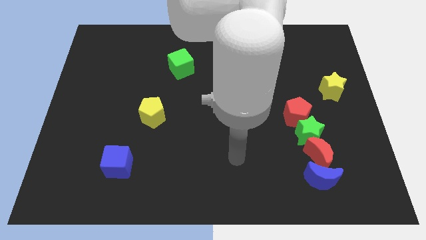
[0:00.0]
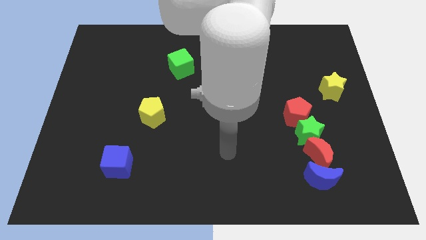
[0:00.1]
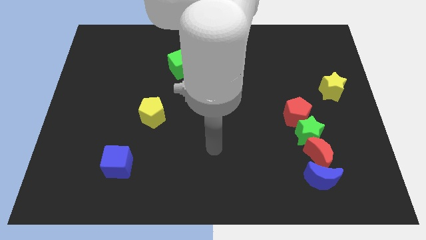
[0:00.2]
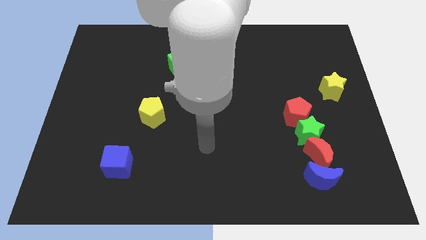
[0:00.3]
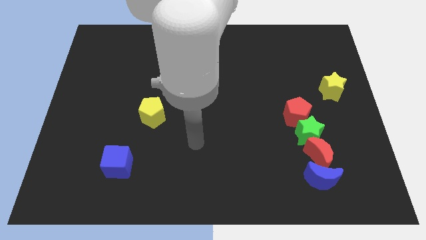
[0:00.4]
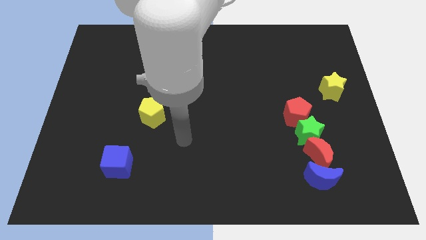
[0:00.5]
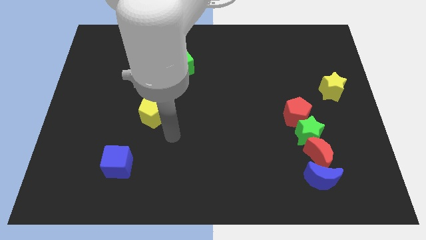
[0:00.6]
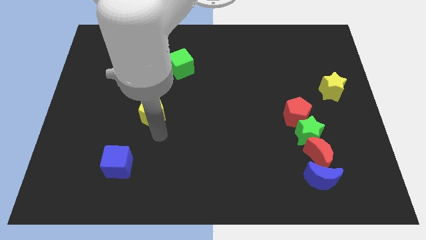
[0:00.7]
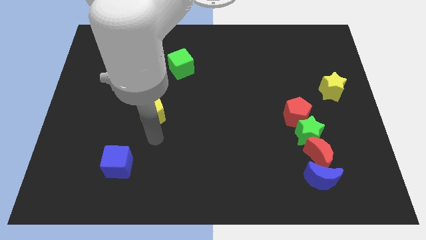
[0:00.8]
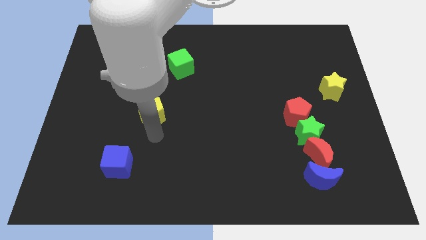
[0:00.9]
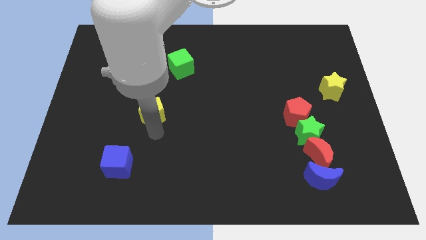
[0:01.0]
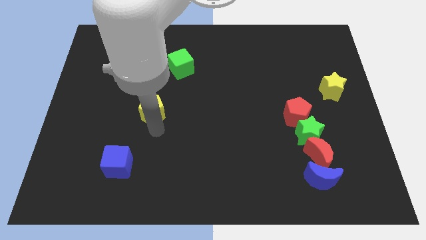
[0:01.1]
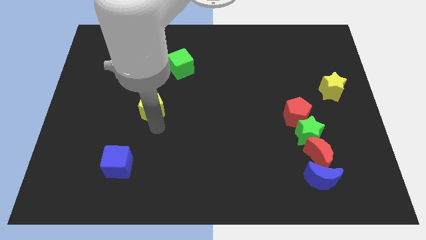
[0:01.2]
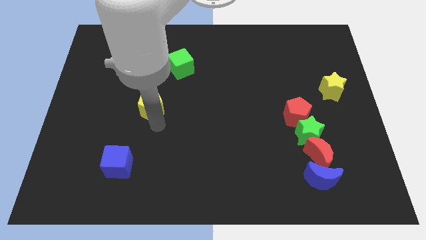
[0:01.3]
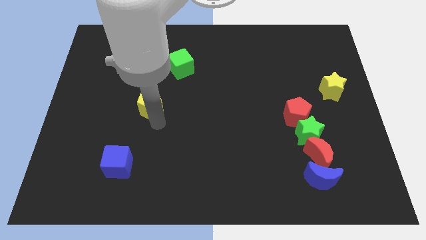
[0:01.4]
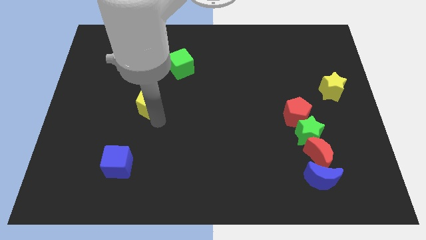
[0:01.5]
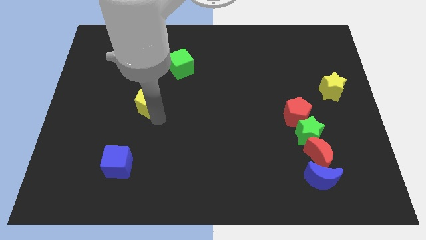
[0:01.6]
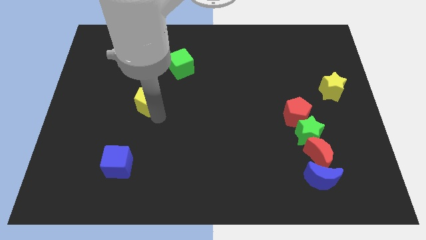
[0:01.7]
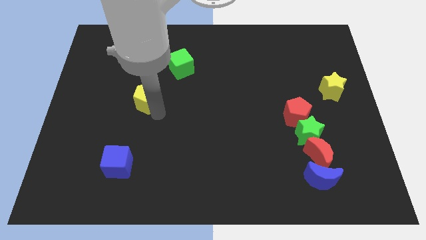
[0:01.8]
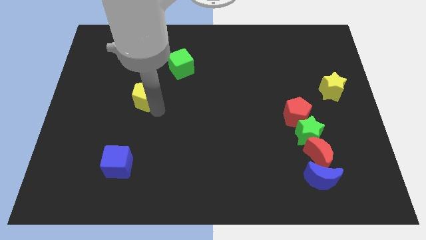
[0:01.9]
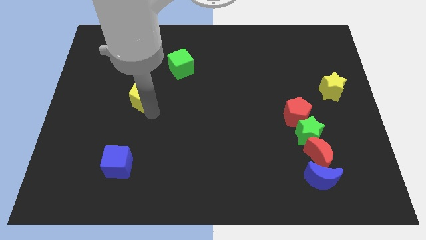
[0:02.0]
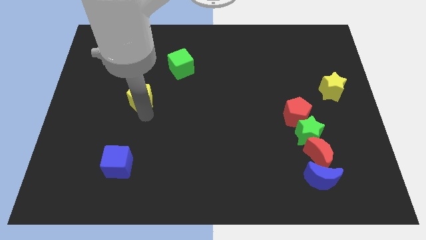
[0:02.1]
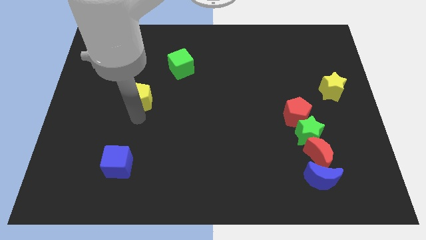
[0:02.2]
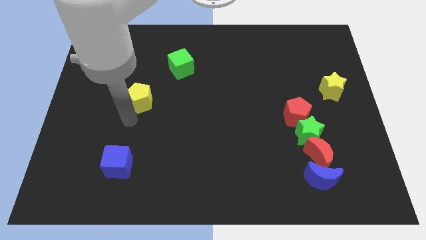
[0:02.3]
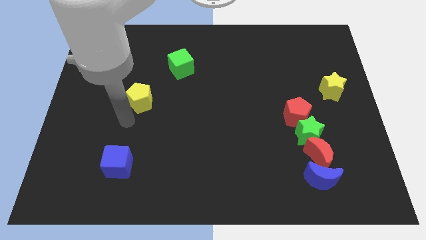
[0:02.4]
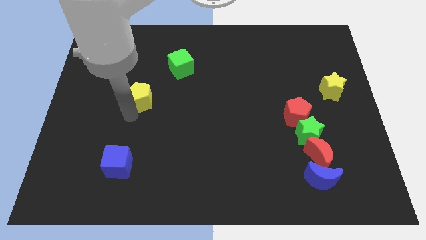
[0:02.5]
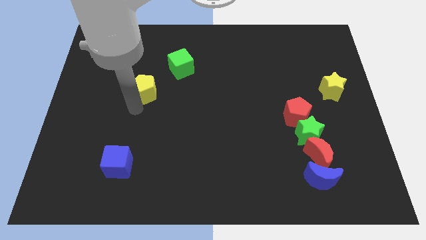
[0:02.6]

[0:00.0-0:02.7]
push the yellow pentagon a little upwards

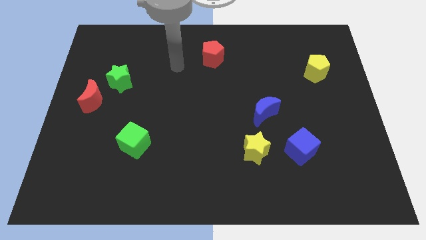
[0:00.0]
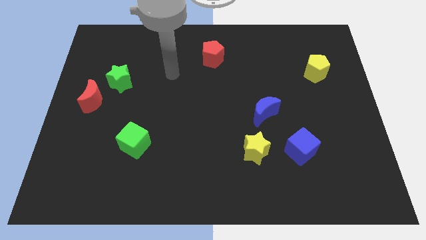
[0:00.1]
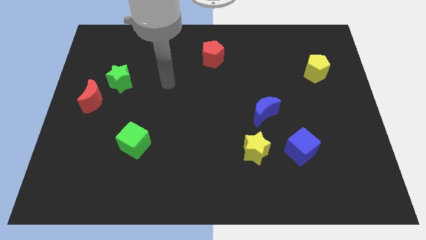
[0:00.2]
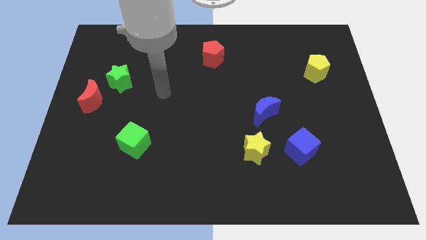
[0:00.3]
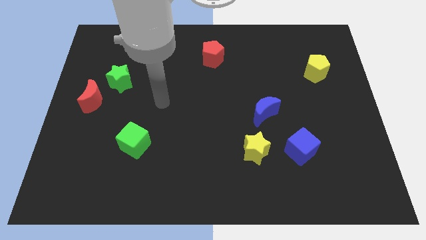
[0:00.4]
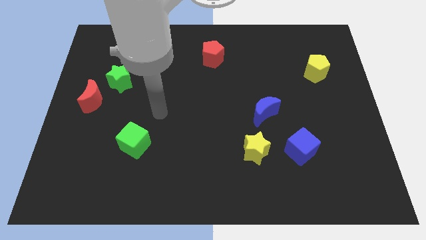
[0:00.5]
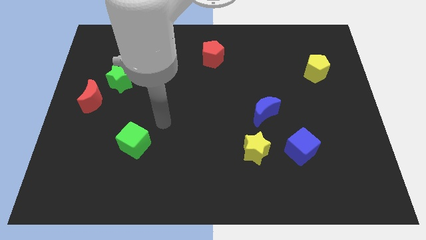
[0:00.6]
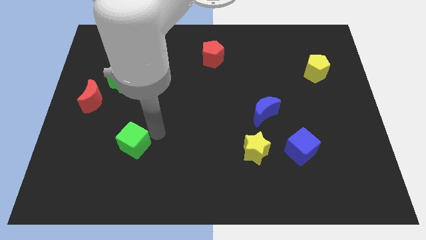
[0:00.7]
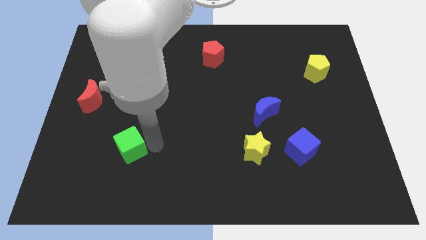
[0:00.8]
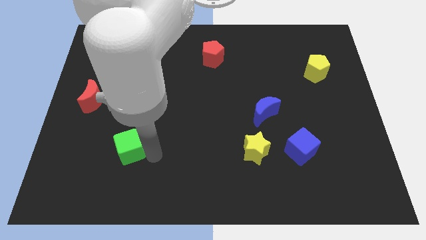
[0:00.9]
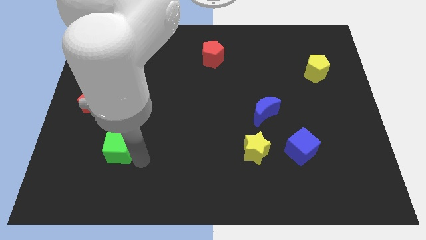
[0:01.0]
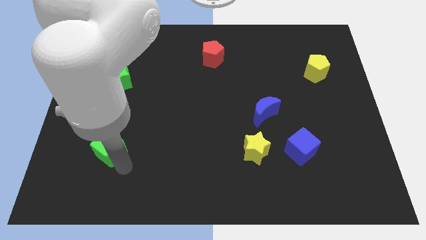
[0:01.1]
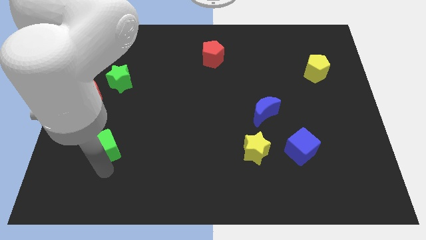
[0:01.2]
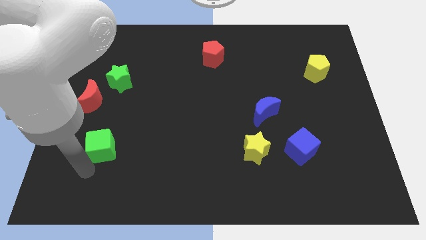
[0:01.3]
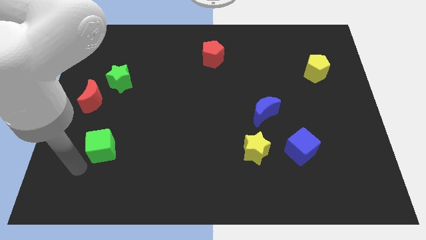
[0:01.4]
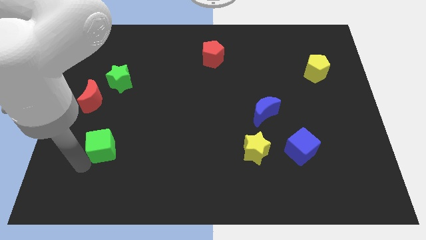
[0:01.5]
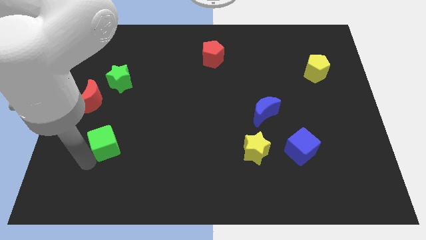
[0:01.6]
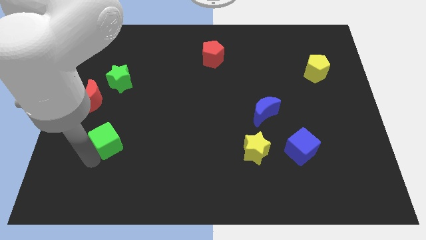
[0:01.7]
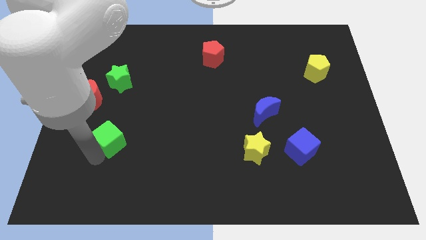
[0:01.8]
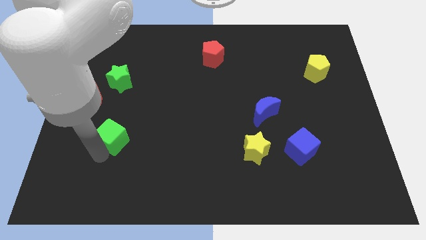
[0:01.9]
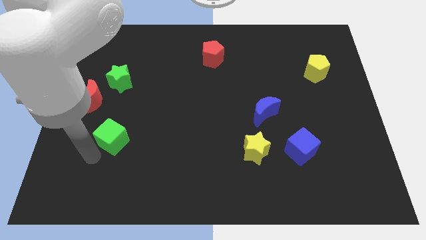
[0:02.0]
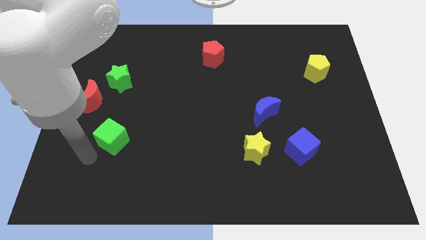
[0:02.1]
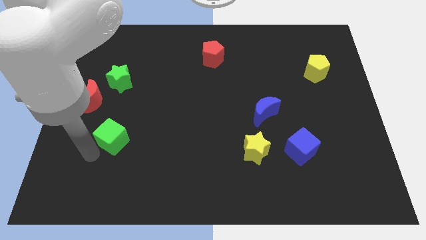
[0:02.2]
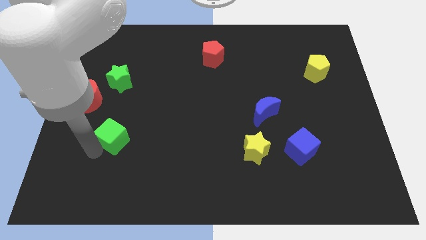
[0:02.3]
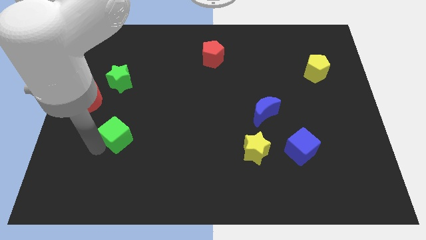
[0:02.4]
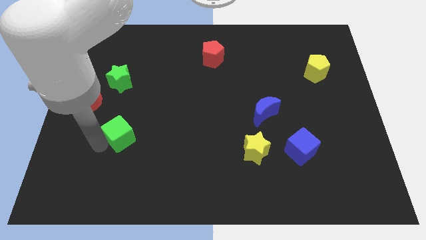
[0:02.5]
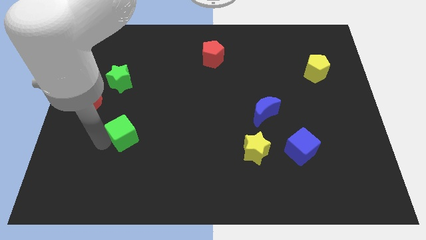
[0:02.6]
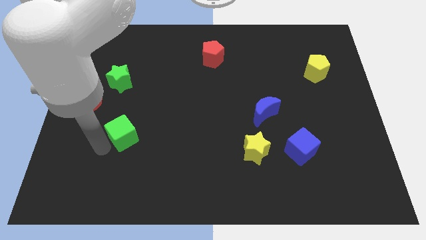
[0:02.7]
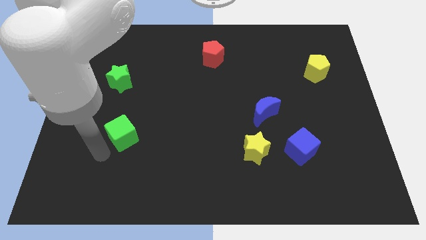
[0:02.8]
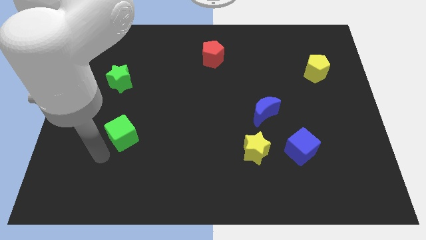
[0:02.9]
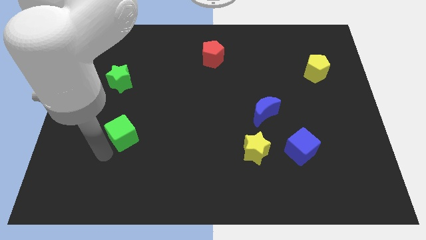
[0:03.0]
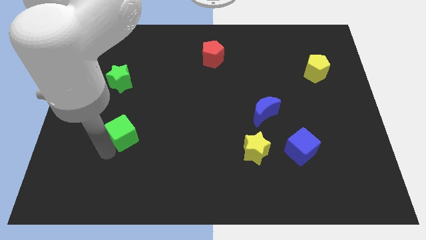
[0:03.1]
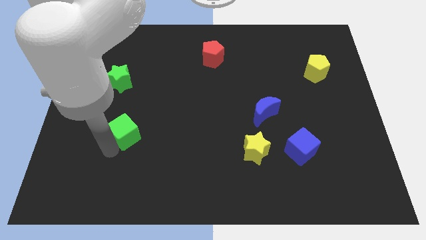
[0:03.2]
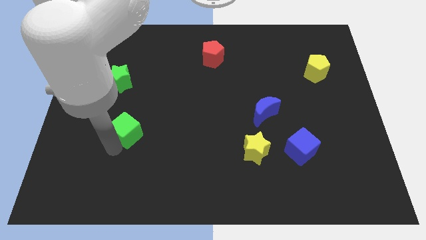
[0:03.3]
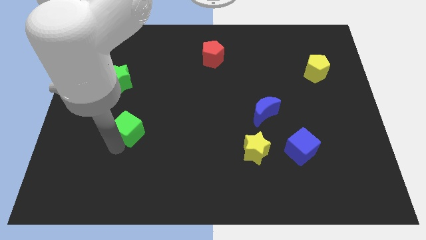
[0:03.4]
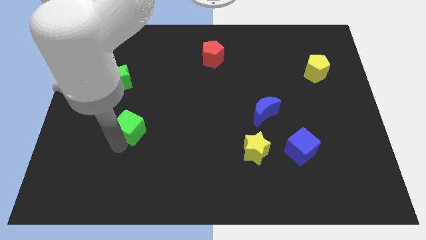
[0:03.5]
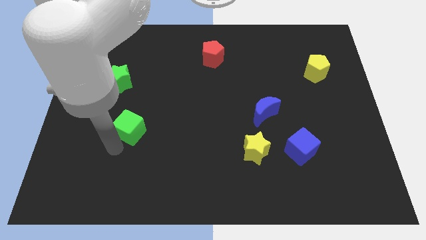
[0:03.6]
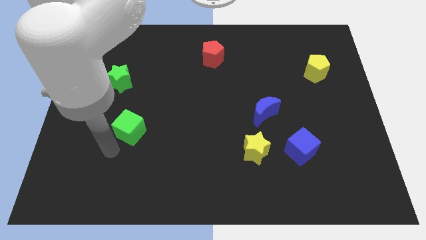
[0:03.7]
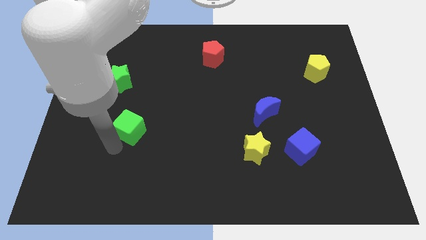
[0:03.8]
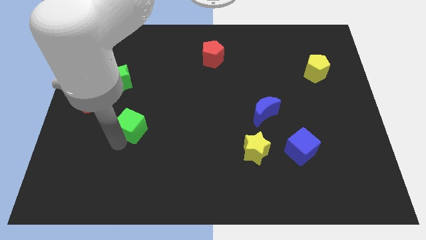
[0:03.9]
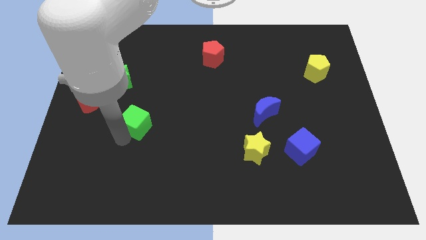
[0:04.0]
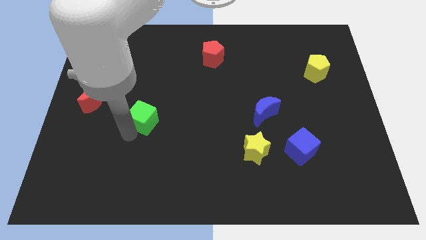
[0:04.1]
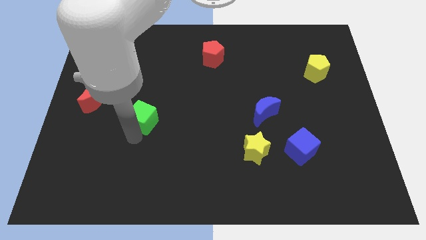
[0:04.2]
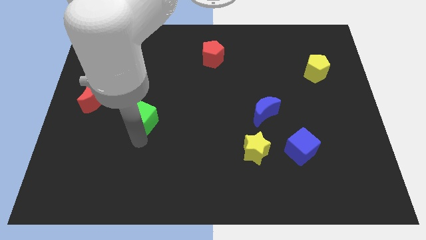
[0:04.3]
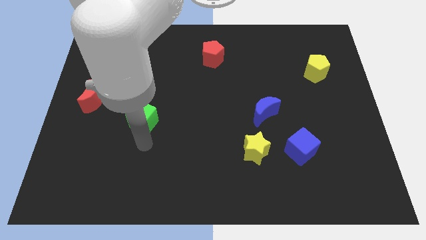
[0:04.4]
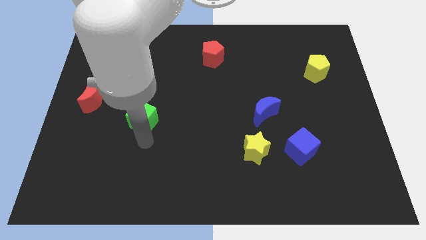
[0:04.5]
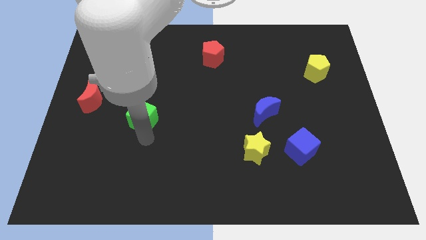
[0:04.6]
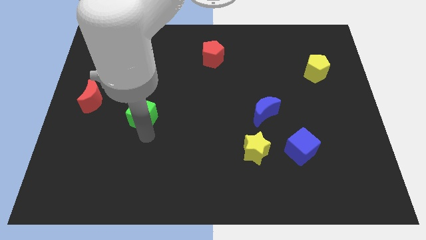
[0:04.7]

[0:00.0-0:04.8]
move the green cube a little bit up

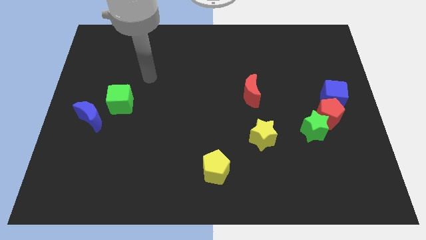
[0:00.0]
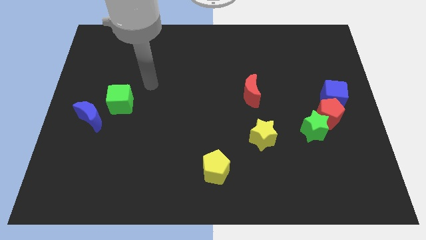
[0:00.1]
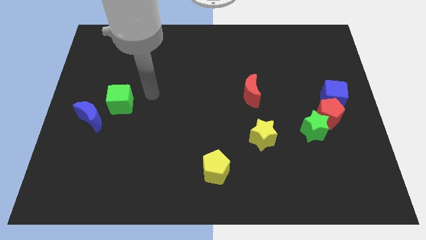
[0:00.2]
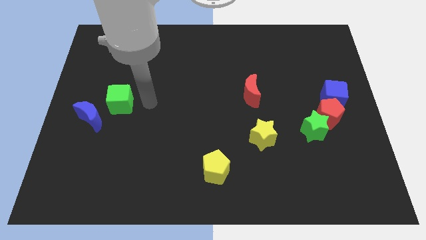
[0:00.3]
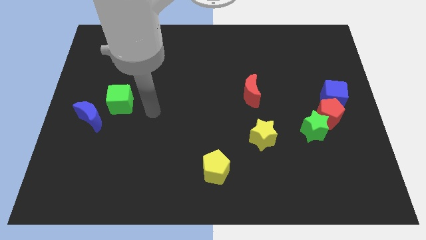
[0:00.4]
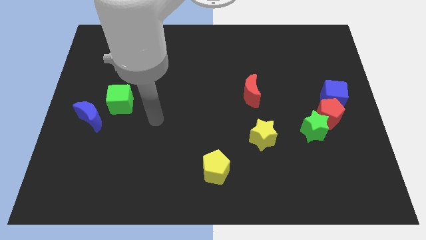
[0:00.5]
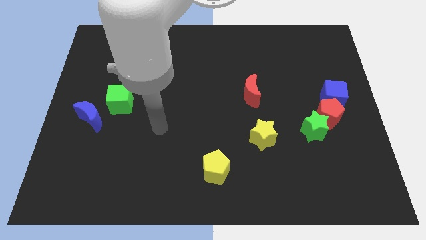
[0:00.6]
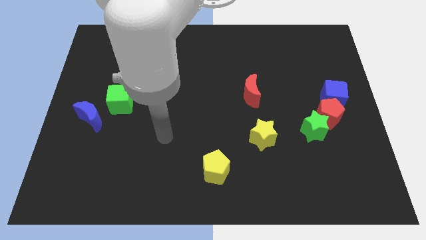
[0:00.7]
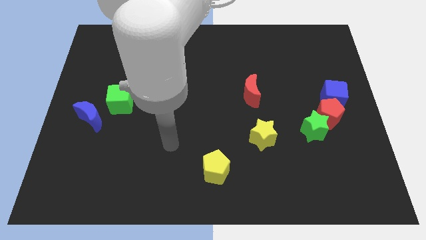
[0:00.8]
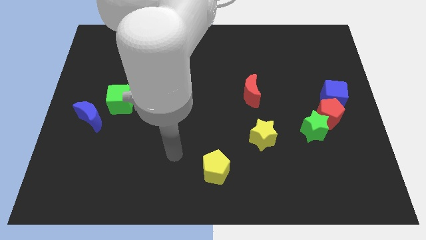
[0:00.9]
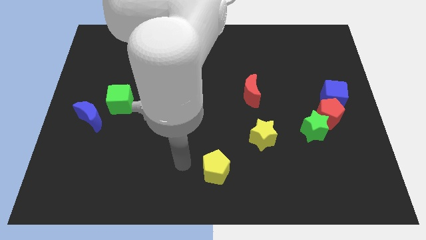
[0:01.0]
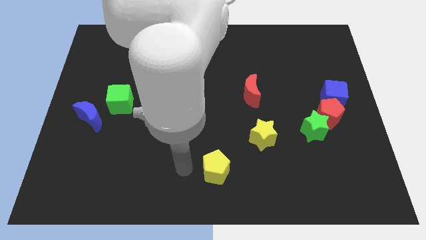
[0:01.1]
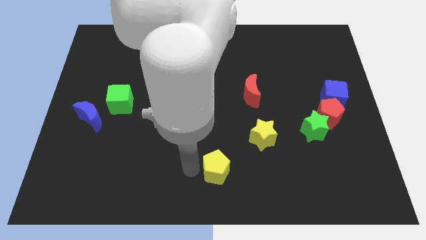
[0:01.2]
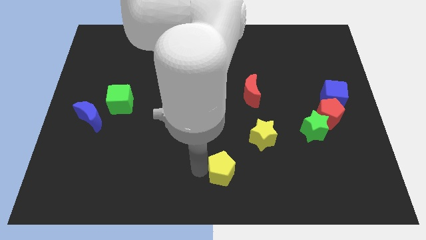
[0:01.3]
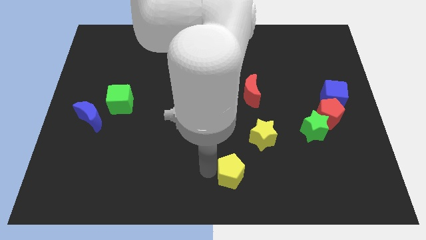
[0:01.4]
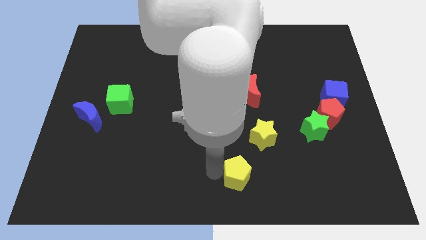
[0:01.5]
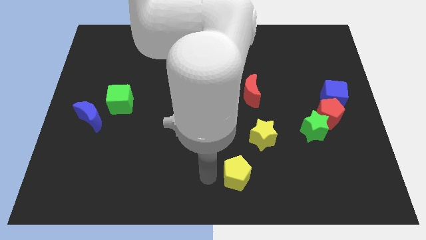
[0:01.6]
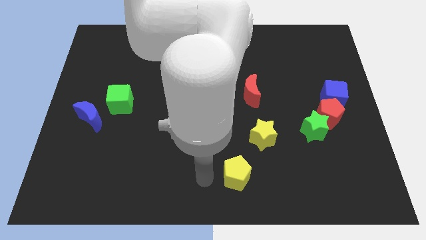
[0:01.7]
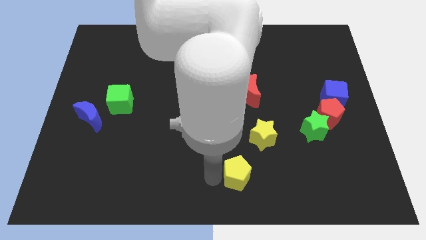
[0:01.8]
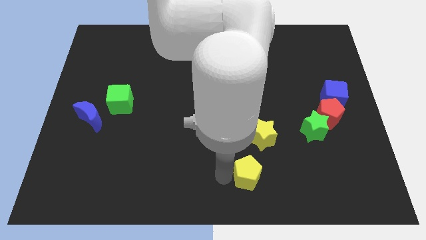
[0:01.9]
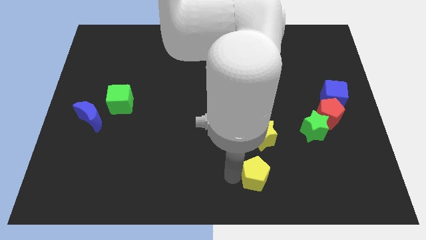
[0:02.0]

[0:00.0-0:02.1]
move the yellow pentagon a little bit to the right
